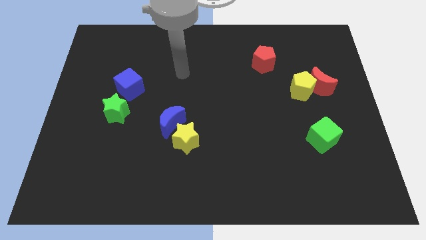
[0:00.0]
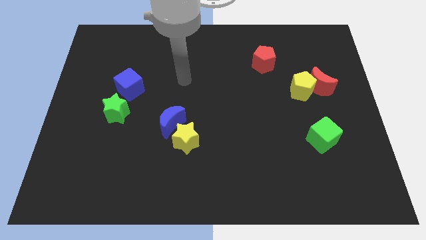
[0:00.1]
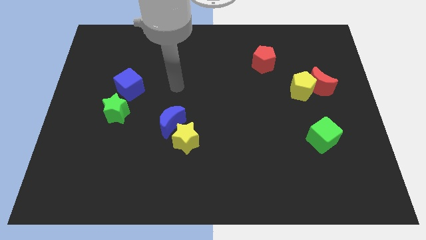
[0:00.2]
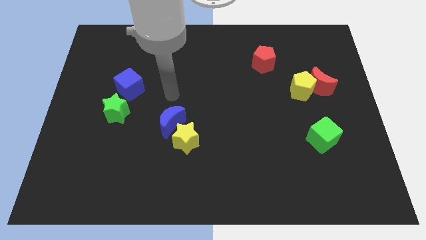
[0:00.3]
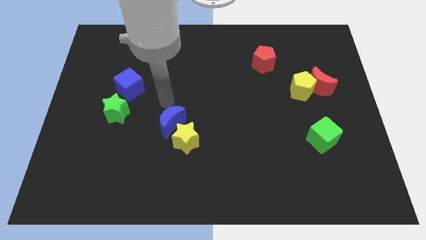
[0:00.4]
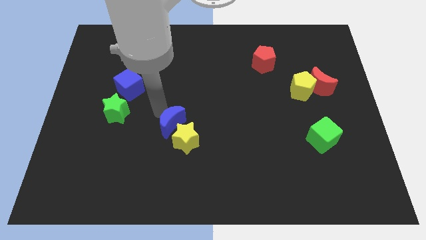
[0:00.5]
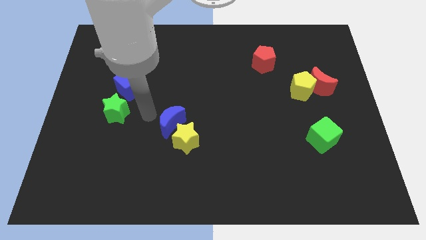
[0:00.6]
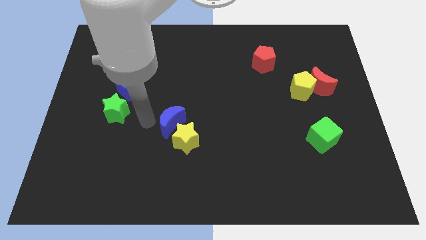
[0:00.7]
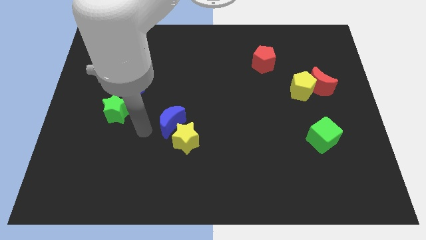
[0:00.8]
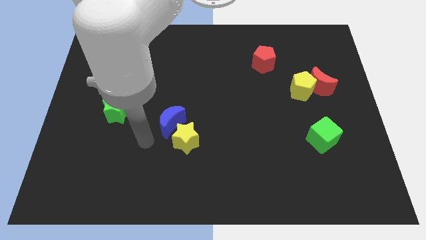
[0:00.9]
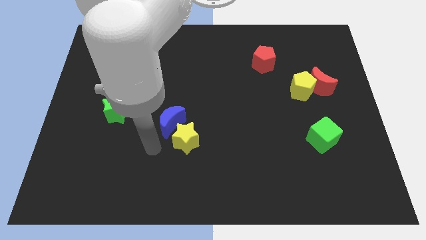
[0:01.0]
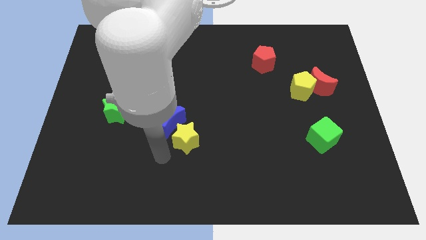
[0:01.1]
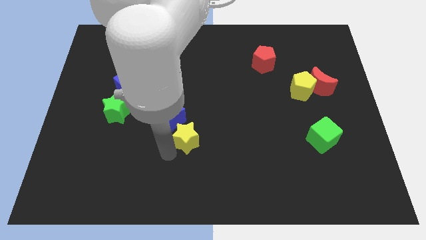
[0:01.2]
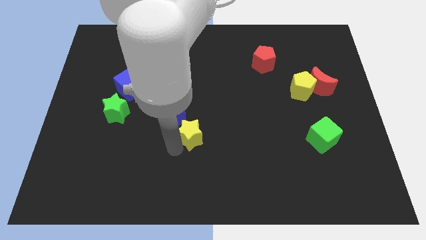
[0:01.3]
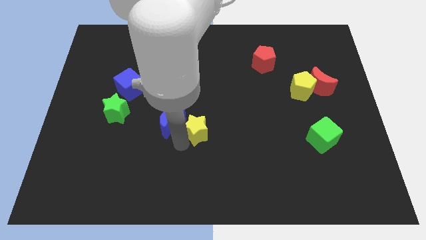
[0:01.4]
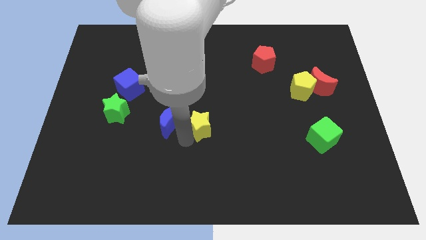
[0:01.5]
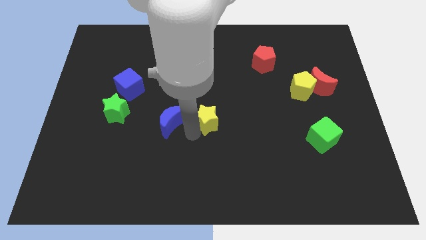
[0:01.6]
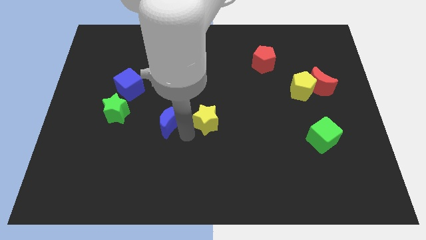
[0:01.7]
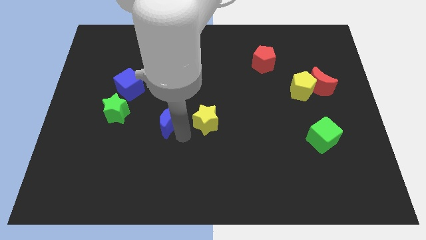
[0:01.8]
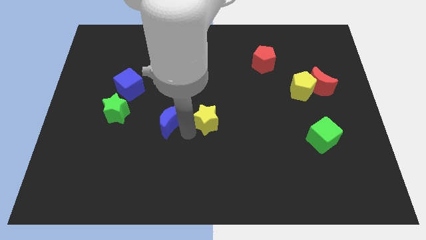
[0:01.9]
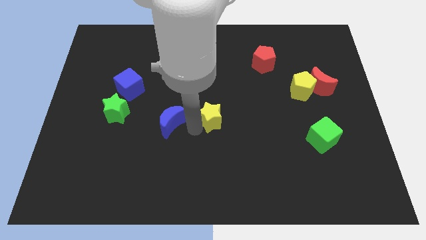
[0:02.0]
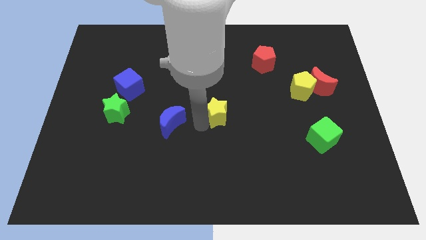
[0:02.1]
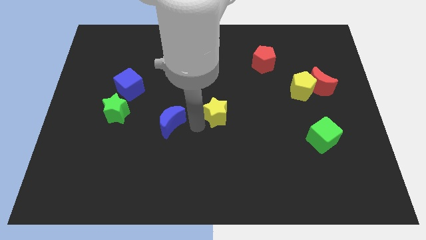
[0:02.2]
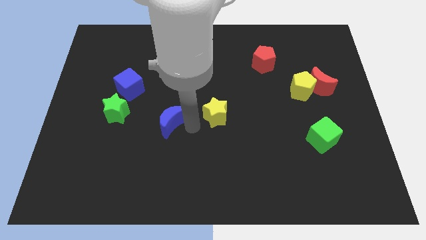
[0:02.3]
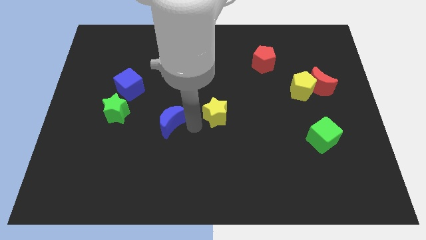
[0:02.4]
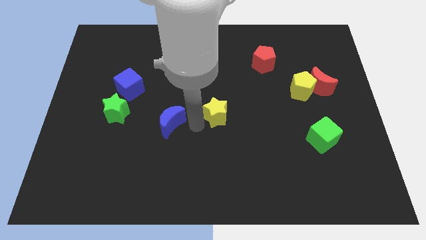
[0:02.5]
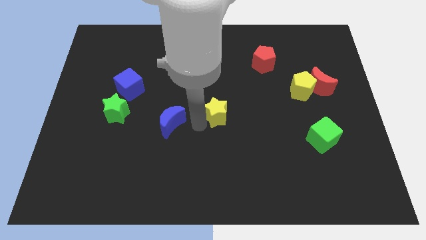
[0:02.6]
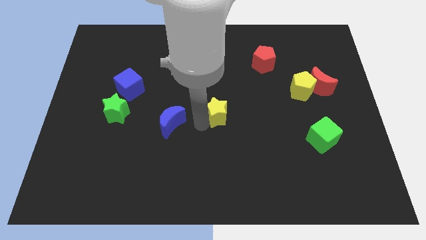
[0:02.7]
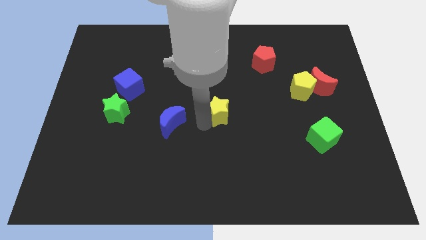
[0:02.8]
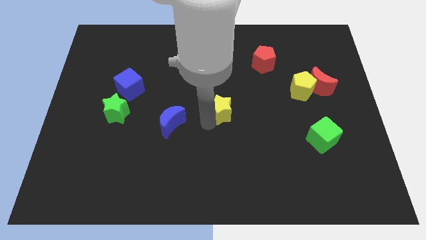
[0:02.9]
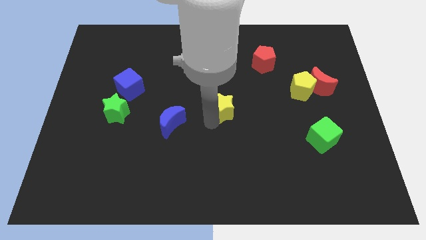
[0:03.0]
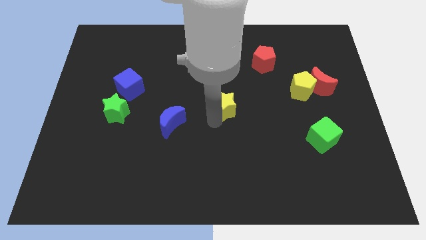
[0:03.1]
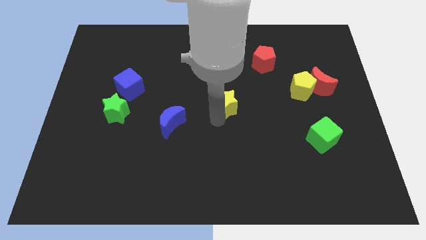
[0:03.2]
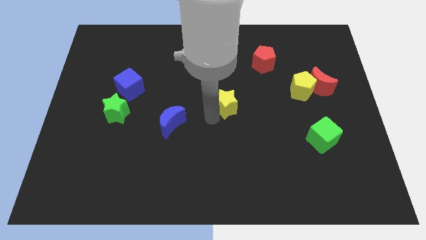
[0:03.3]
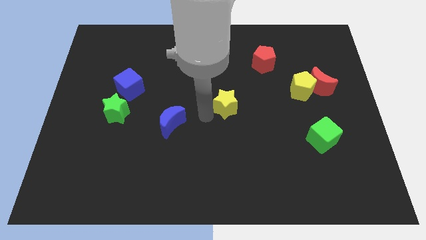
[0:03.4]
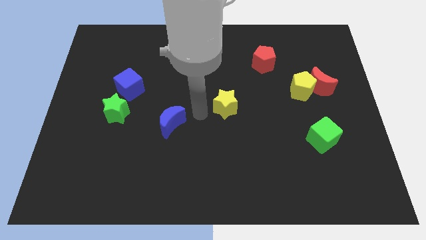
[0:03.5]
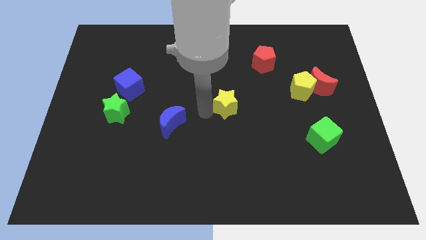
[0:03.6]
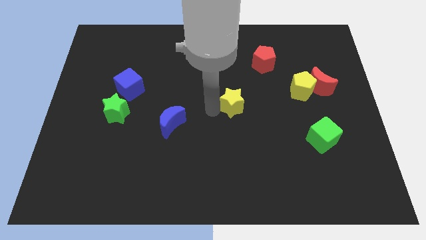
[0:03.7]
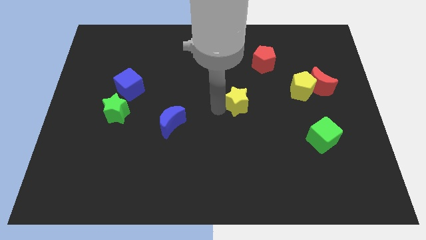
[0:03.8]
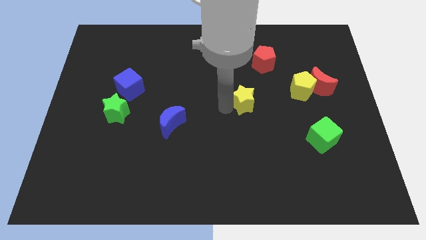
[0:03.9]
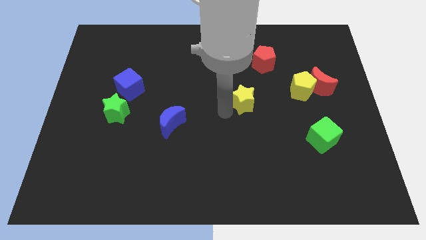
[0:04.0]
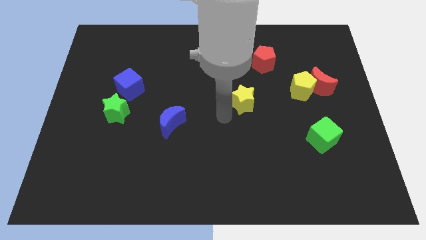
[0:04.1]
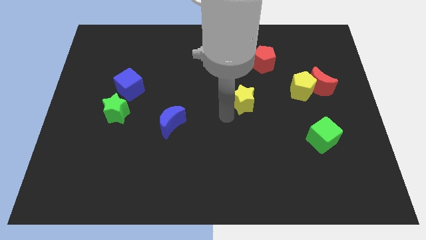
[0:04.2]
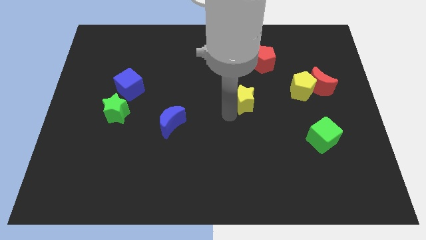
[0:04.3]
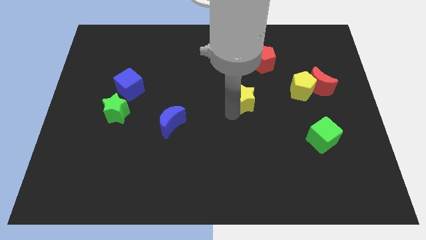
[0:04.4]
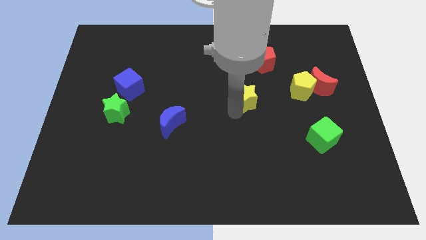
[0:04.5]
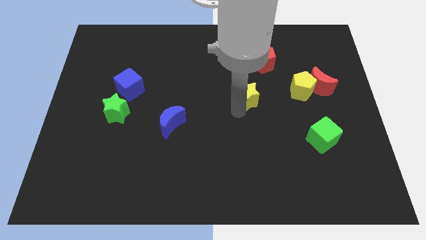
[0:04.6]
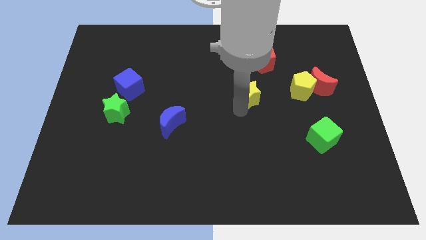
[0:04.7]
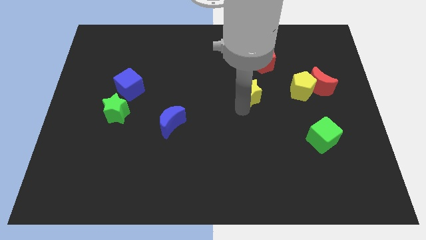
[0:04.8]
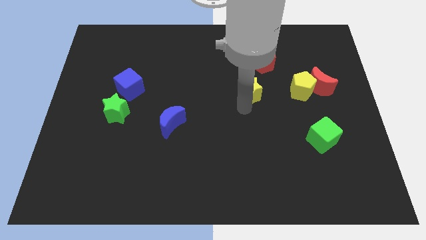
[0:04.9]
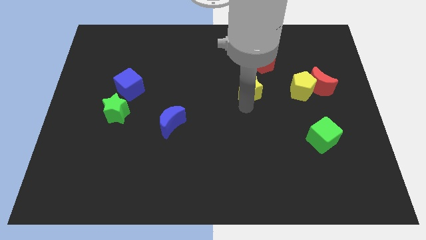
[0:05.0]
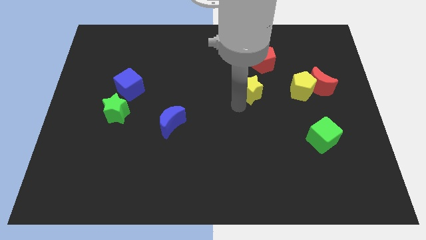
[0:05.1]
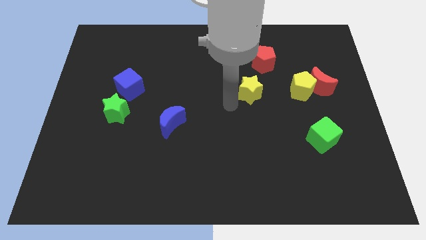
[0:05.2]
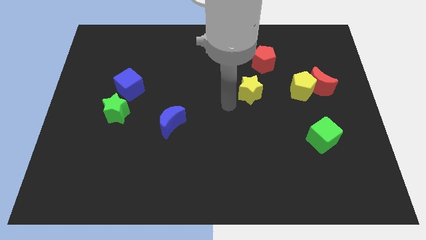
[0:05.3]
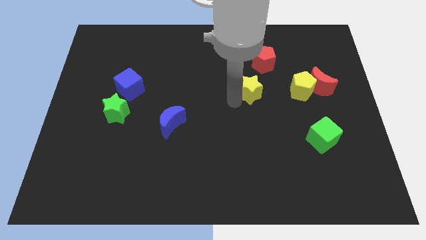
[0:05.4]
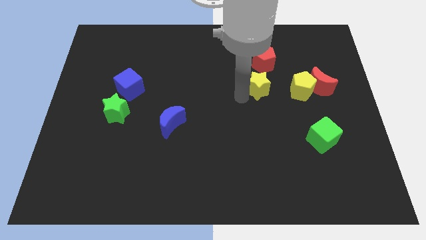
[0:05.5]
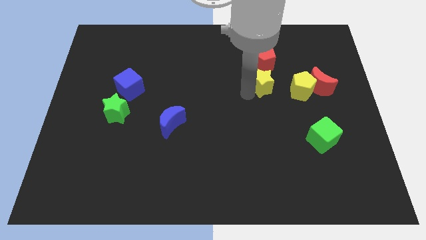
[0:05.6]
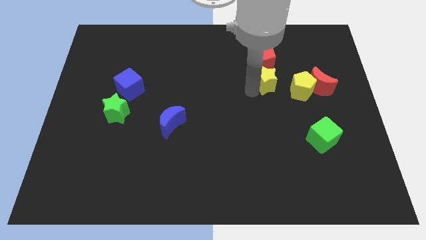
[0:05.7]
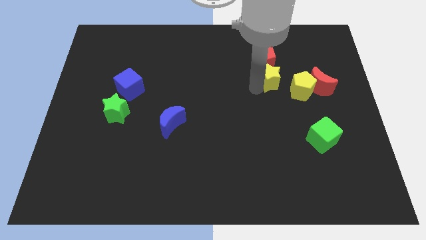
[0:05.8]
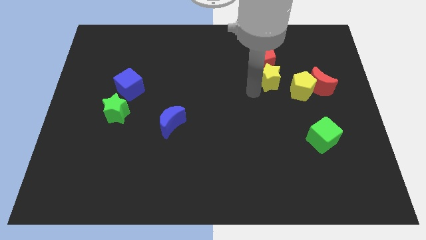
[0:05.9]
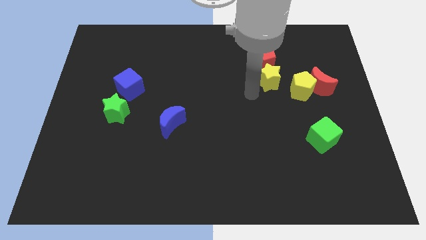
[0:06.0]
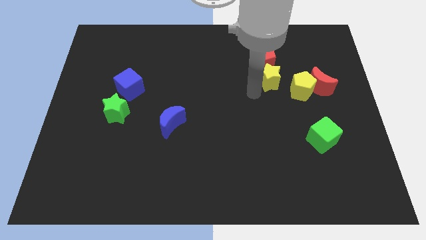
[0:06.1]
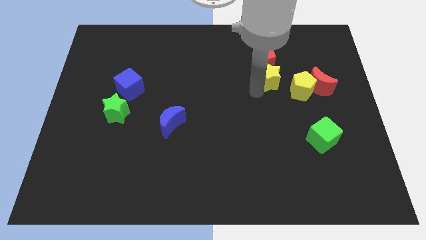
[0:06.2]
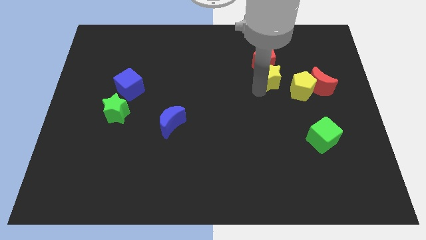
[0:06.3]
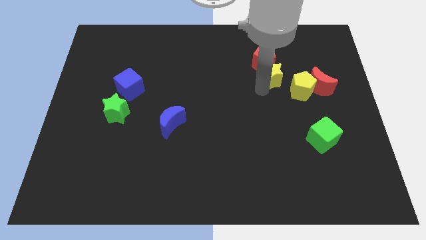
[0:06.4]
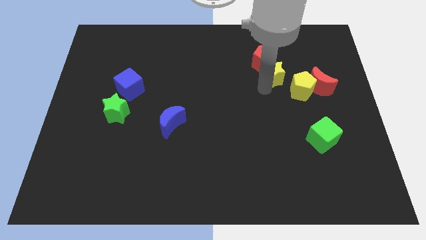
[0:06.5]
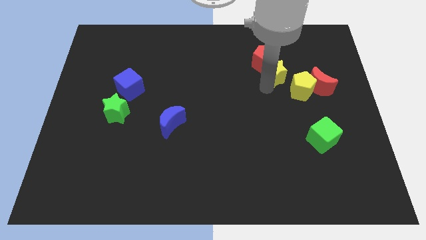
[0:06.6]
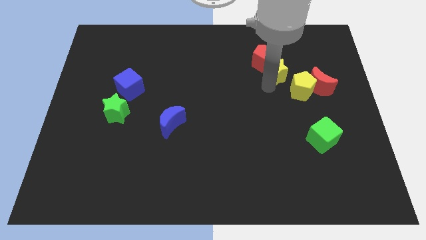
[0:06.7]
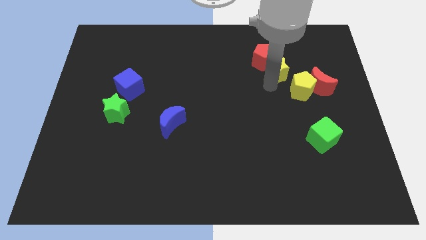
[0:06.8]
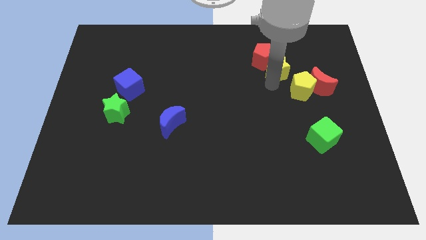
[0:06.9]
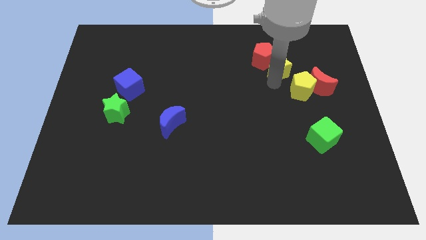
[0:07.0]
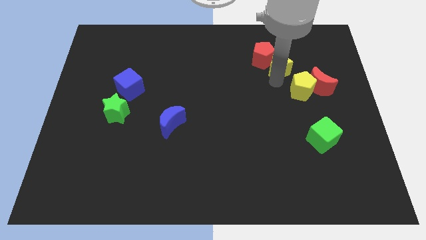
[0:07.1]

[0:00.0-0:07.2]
slide the yellow star to the top of the yellow pentagon
